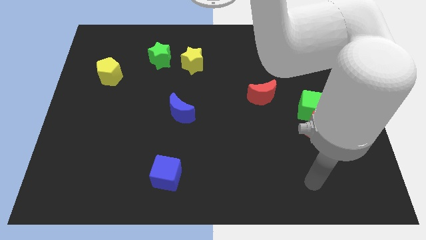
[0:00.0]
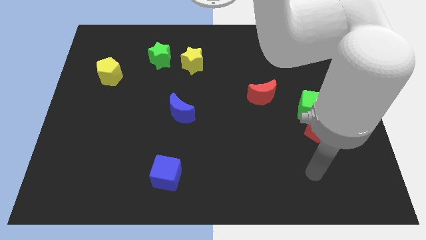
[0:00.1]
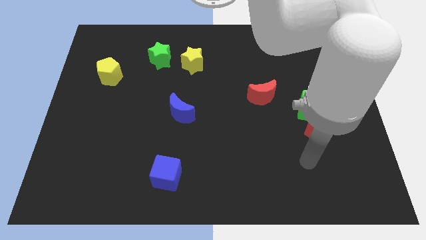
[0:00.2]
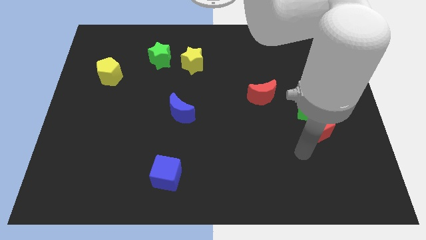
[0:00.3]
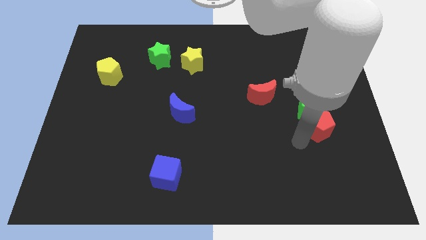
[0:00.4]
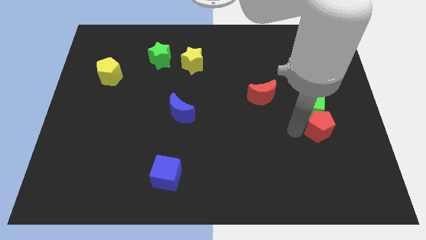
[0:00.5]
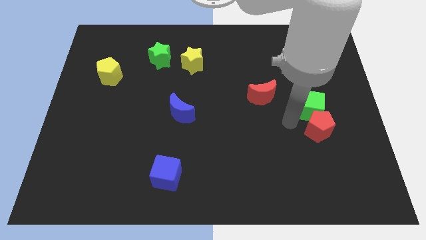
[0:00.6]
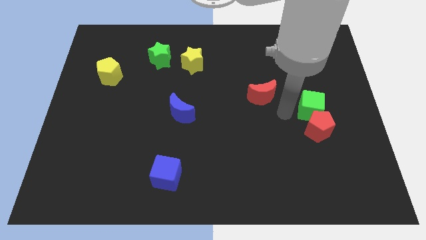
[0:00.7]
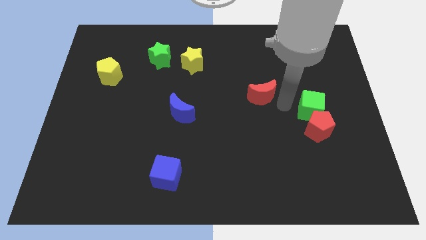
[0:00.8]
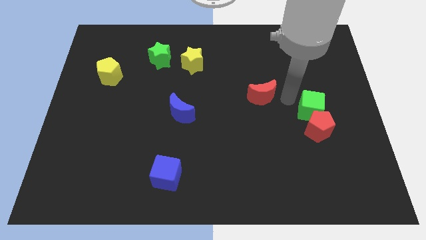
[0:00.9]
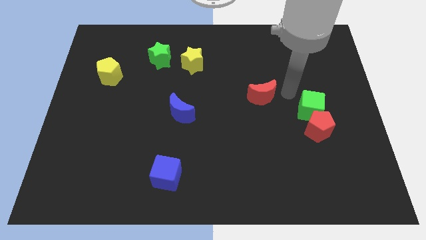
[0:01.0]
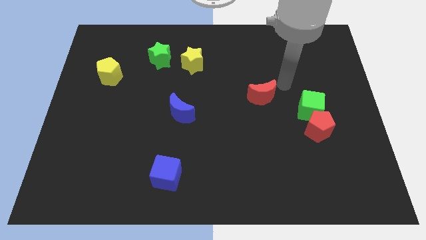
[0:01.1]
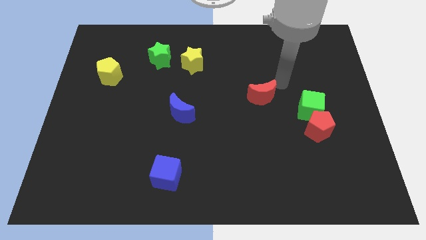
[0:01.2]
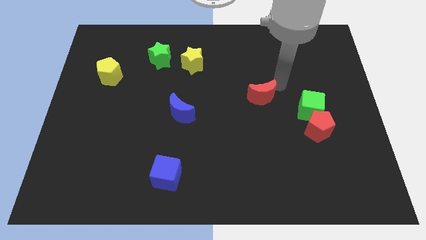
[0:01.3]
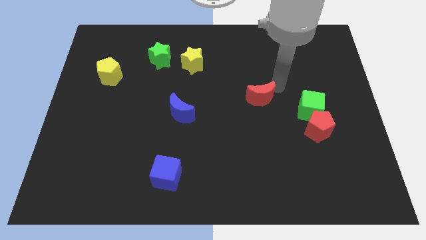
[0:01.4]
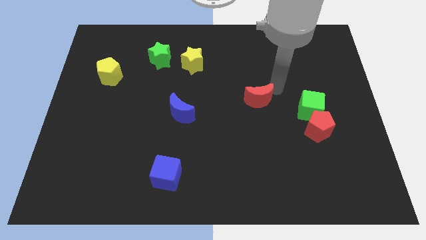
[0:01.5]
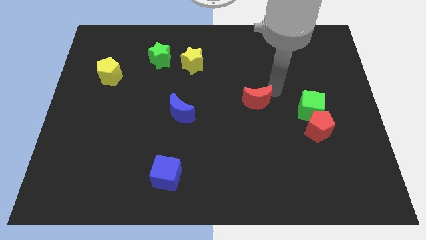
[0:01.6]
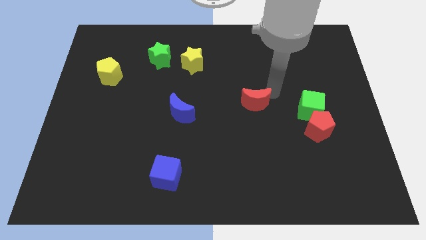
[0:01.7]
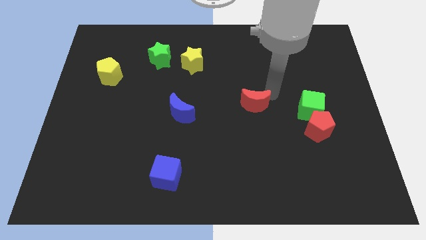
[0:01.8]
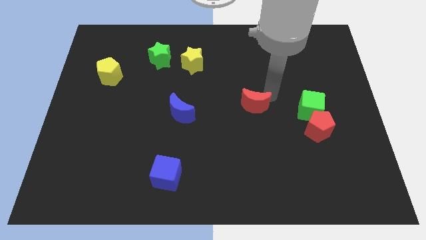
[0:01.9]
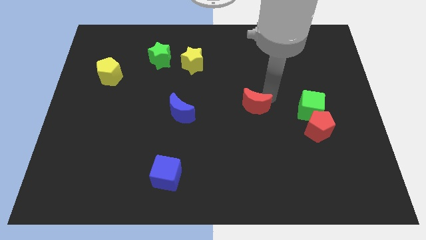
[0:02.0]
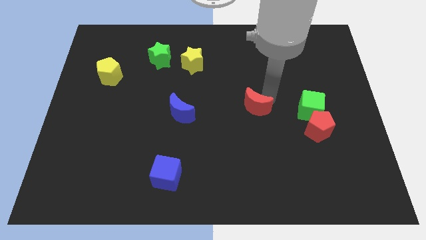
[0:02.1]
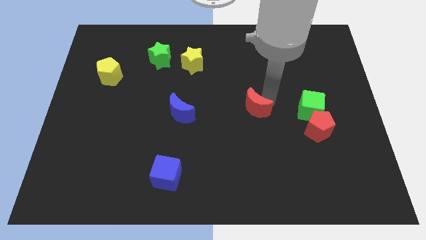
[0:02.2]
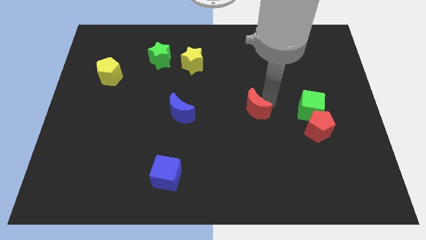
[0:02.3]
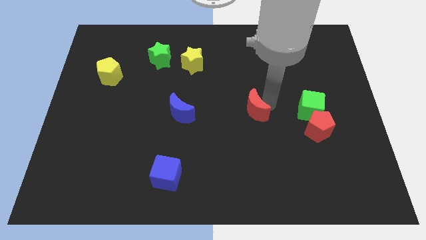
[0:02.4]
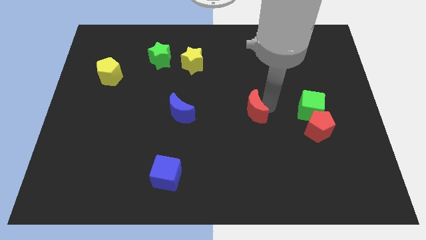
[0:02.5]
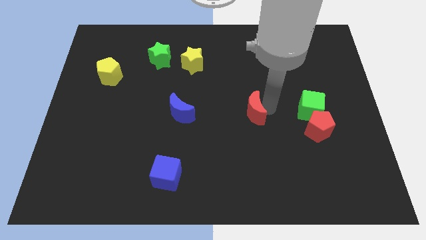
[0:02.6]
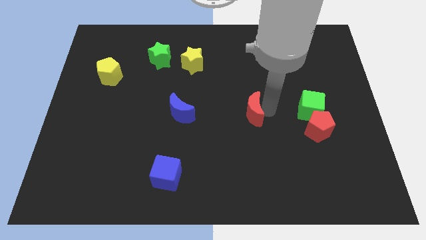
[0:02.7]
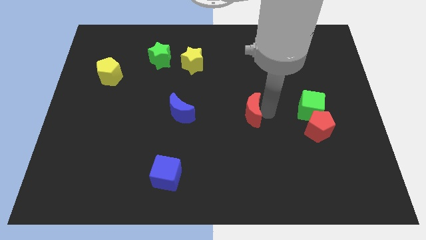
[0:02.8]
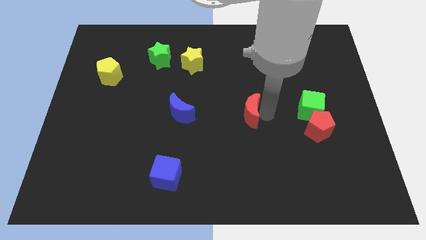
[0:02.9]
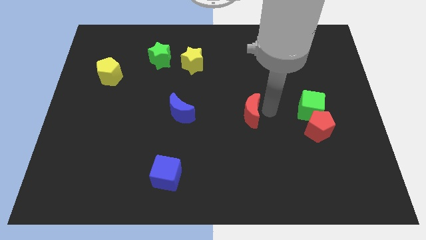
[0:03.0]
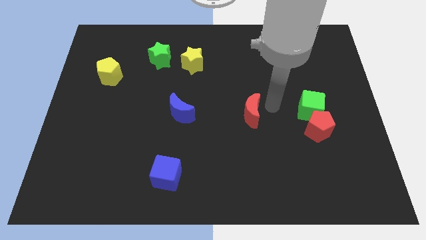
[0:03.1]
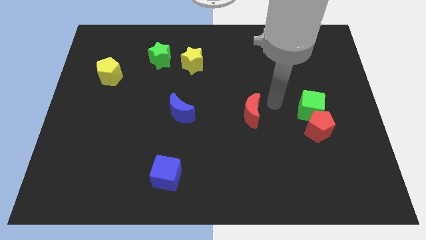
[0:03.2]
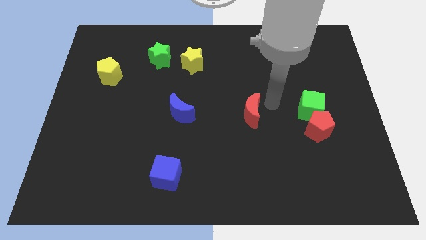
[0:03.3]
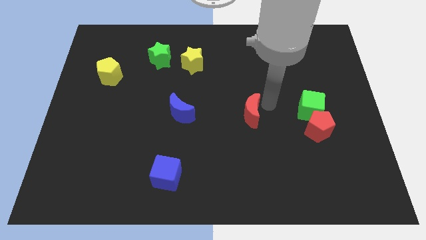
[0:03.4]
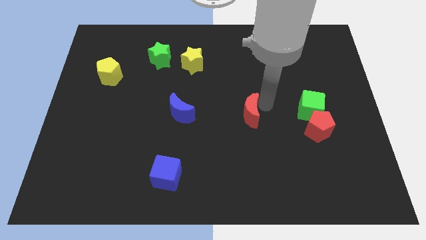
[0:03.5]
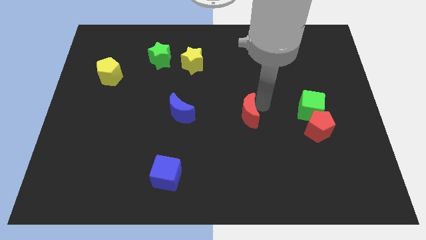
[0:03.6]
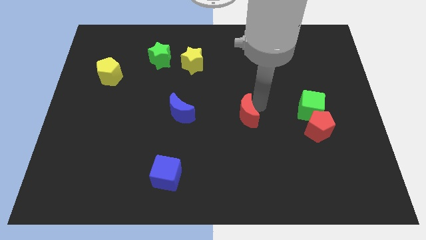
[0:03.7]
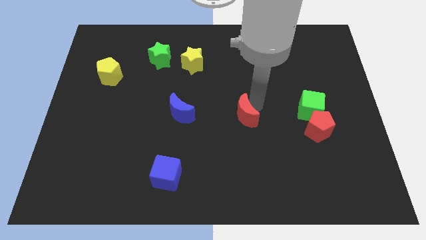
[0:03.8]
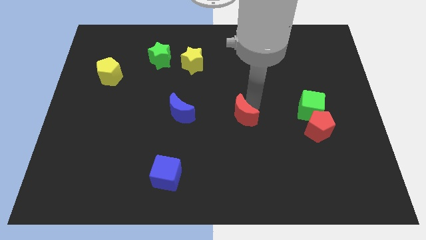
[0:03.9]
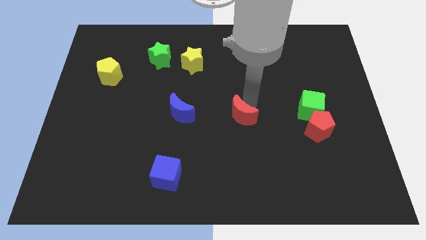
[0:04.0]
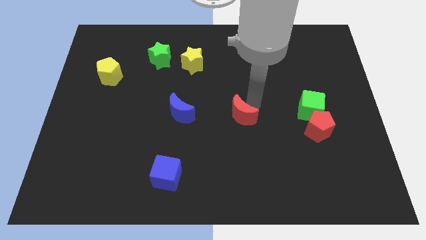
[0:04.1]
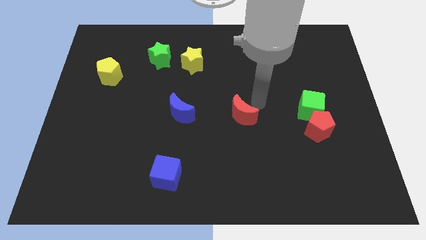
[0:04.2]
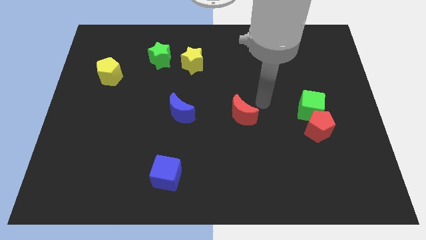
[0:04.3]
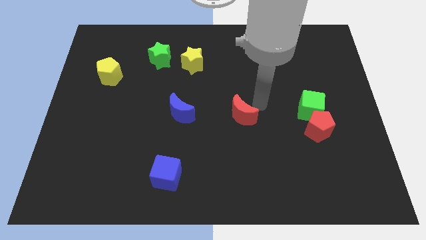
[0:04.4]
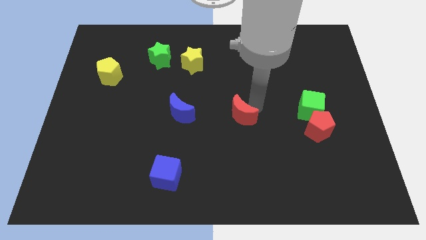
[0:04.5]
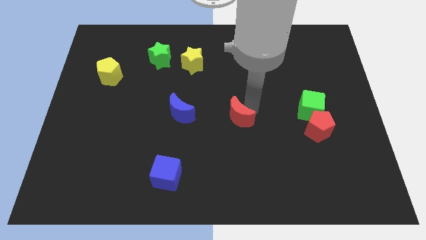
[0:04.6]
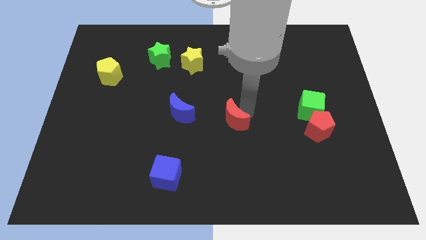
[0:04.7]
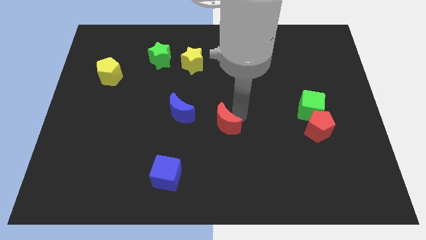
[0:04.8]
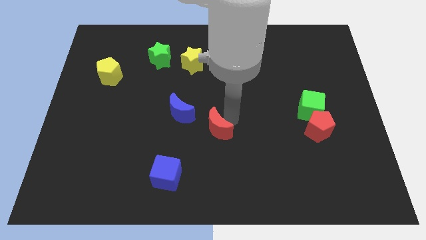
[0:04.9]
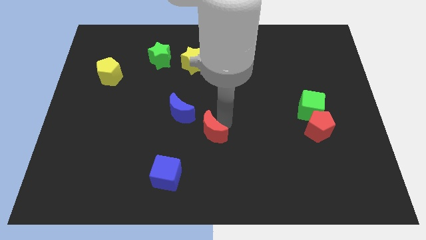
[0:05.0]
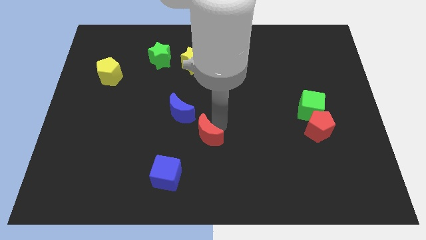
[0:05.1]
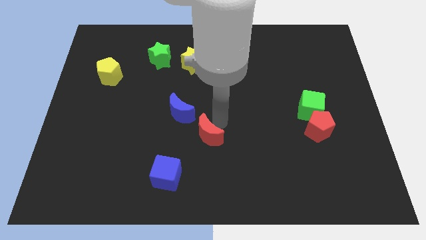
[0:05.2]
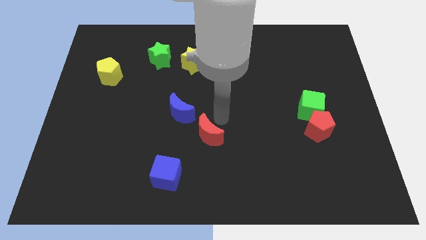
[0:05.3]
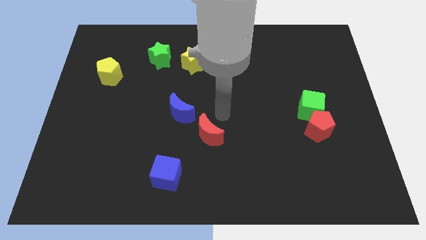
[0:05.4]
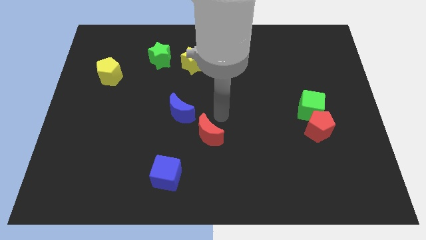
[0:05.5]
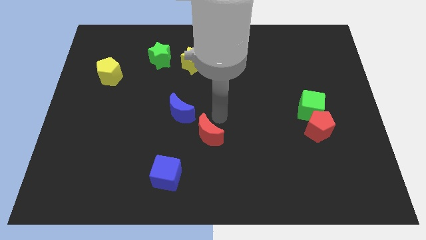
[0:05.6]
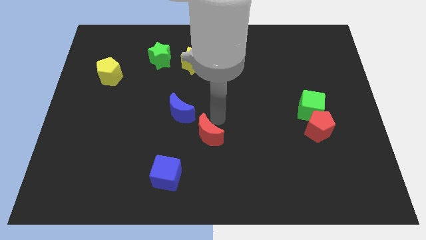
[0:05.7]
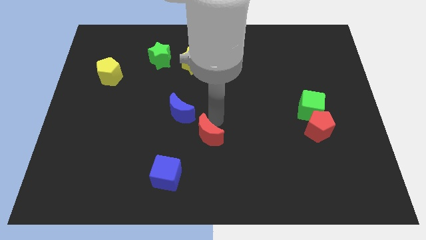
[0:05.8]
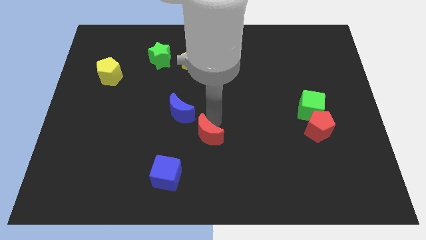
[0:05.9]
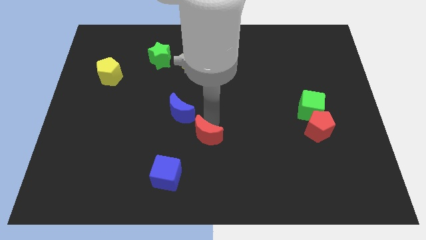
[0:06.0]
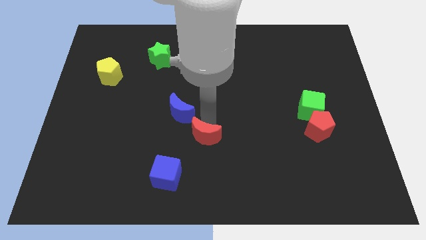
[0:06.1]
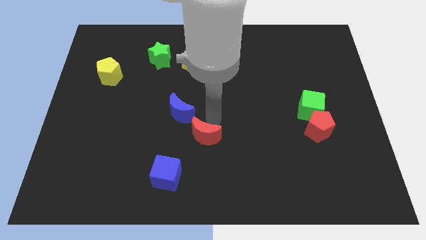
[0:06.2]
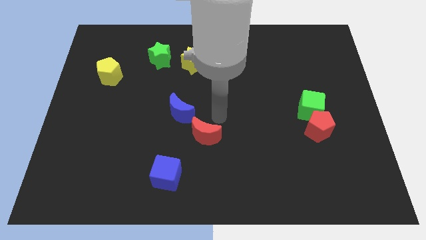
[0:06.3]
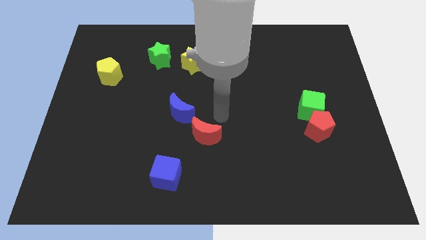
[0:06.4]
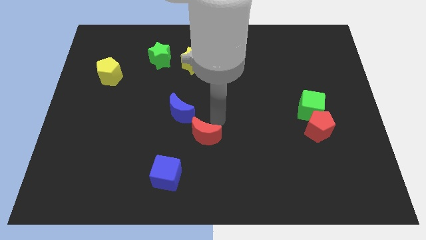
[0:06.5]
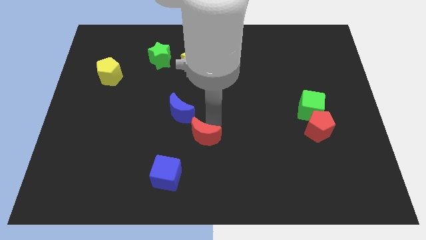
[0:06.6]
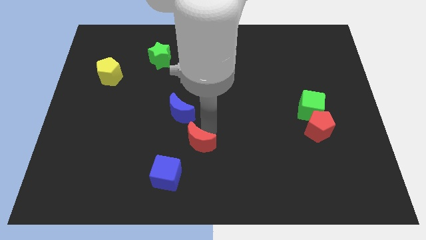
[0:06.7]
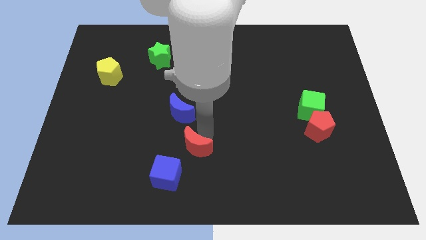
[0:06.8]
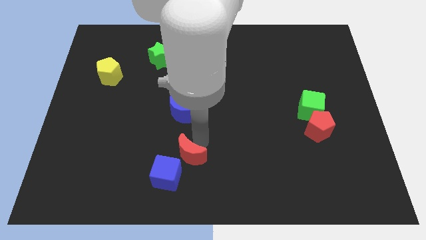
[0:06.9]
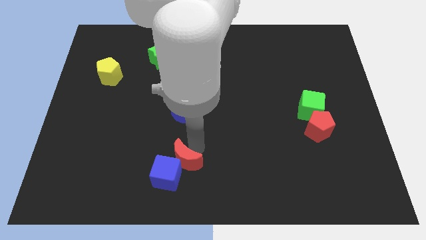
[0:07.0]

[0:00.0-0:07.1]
move the red moon towards the blue cube
